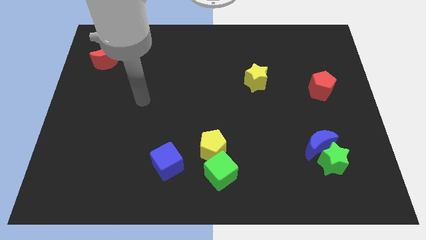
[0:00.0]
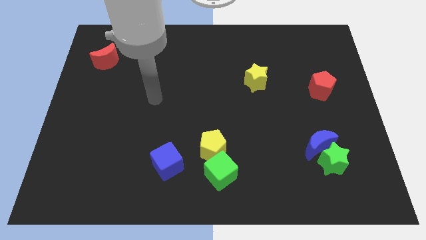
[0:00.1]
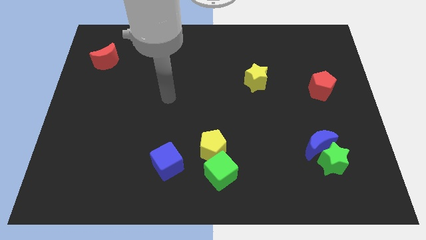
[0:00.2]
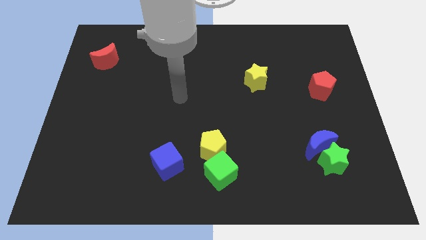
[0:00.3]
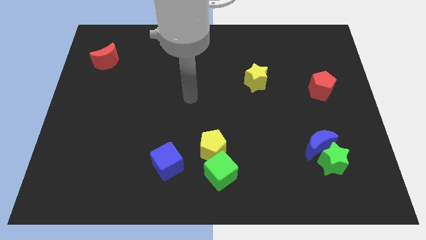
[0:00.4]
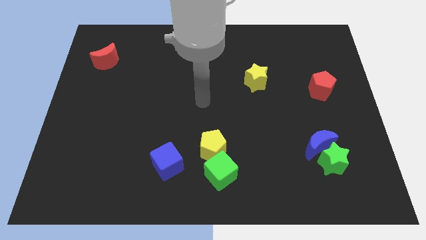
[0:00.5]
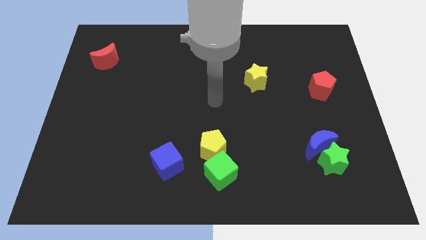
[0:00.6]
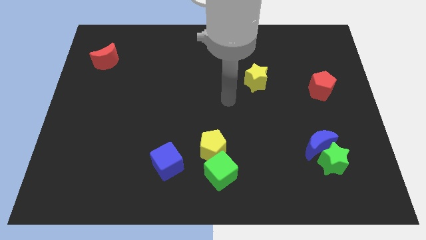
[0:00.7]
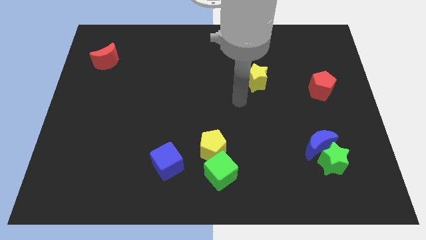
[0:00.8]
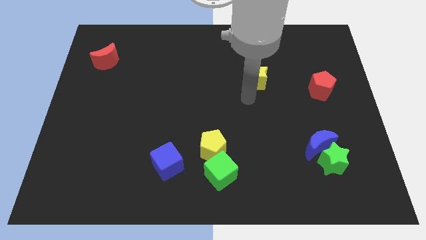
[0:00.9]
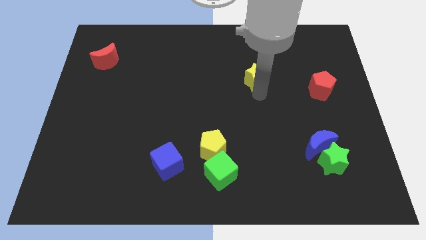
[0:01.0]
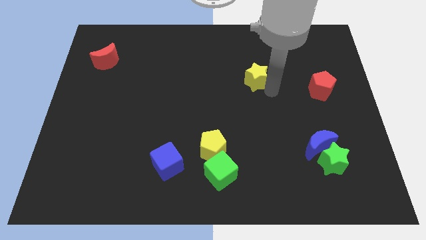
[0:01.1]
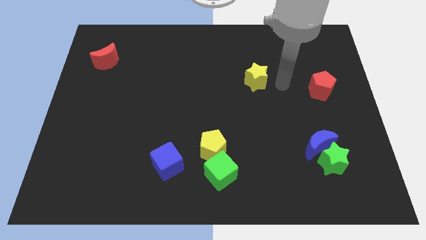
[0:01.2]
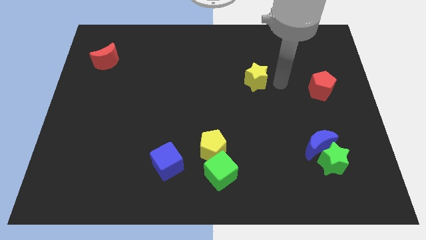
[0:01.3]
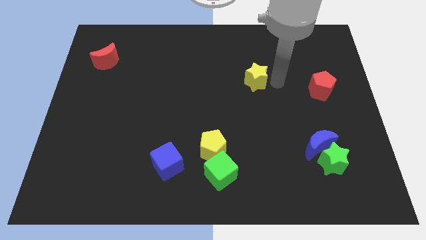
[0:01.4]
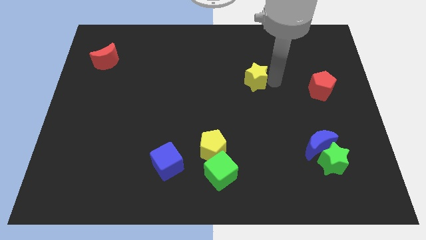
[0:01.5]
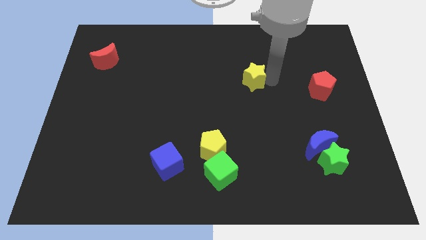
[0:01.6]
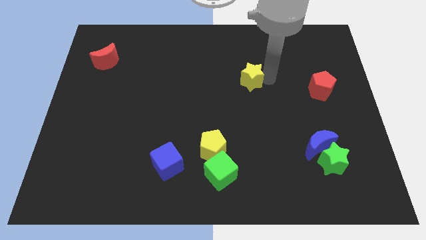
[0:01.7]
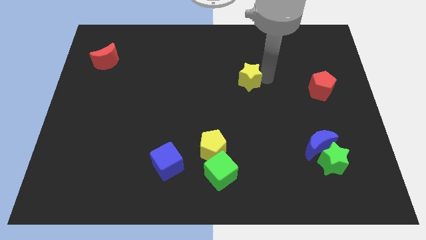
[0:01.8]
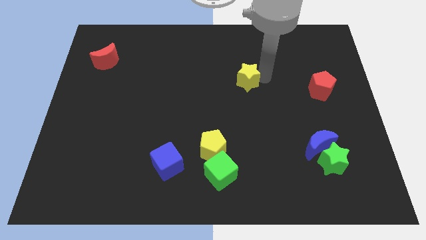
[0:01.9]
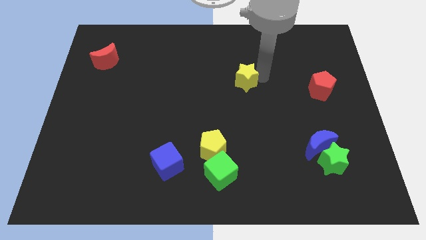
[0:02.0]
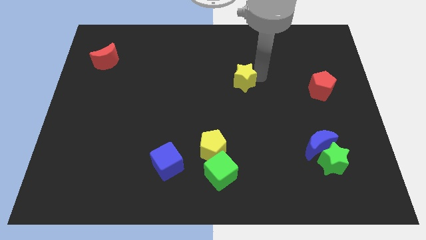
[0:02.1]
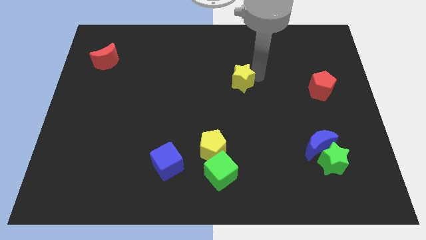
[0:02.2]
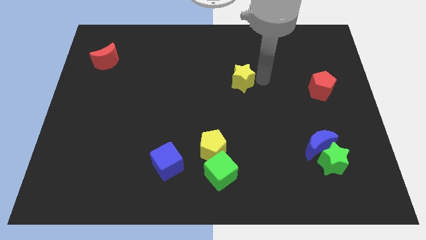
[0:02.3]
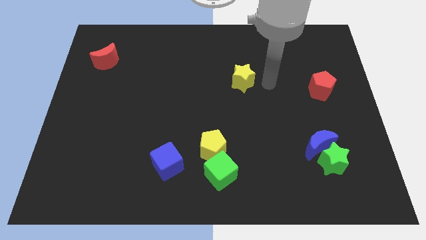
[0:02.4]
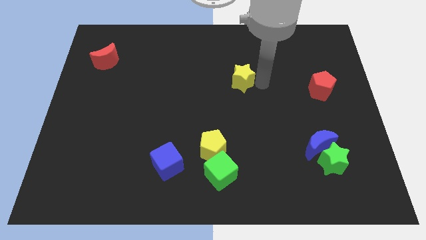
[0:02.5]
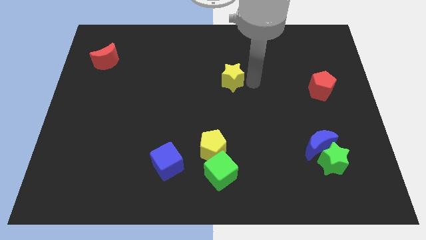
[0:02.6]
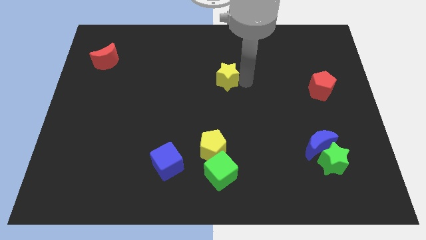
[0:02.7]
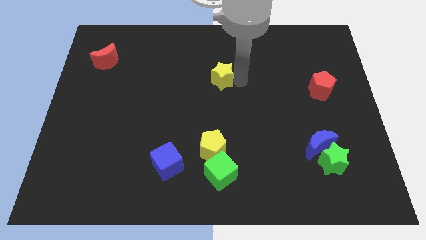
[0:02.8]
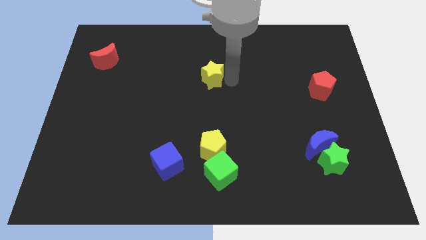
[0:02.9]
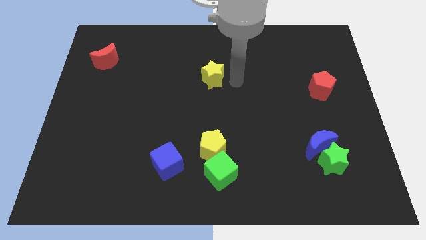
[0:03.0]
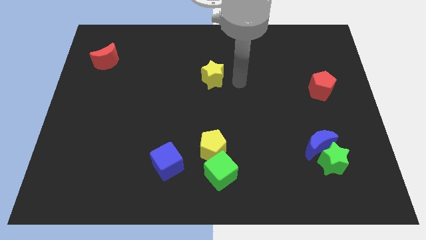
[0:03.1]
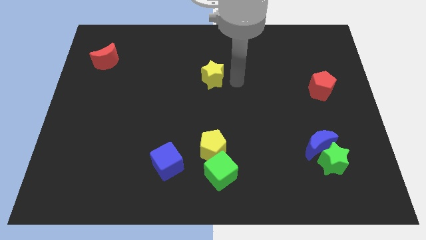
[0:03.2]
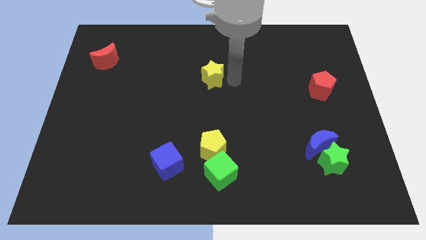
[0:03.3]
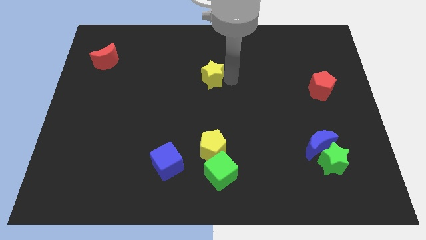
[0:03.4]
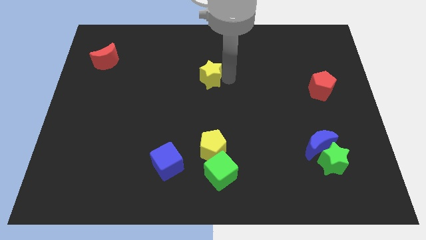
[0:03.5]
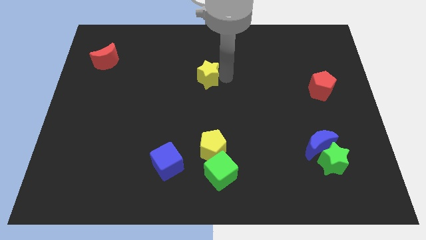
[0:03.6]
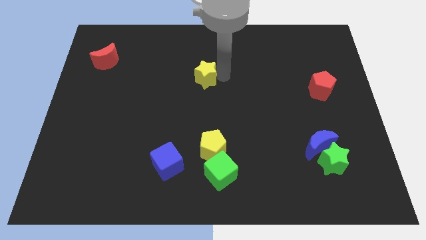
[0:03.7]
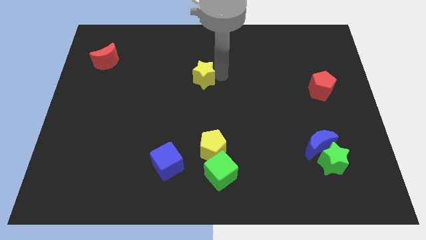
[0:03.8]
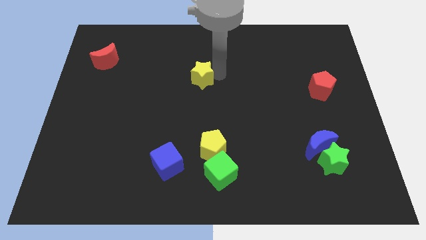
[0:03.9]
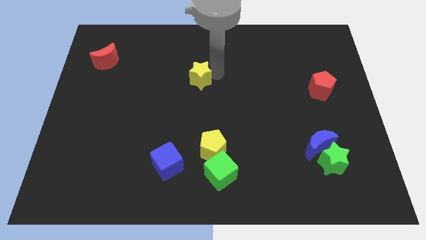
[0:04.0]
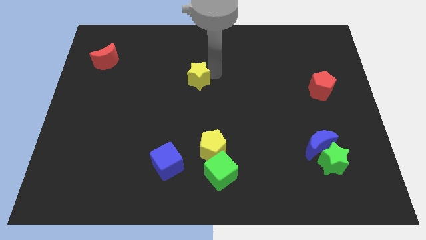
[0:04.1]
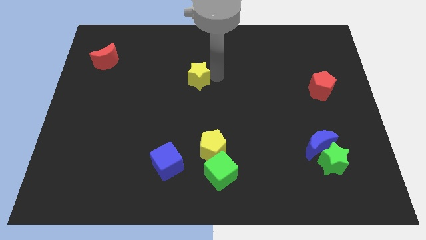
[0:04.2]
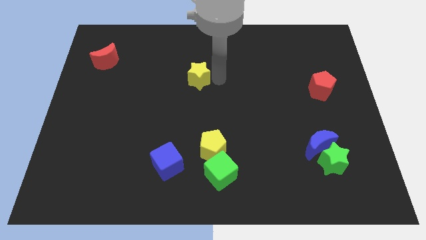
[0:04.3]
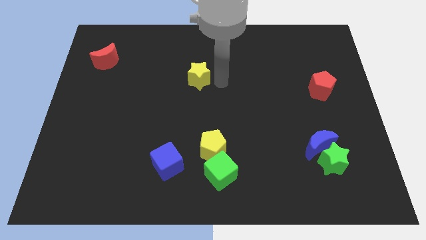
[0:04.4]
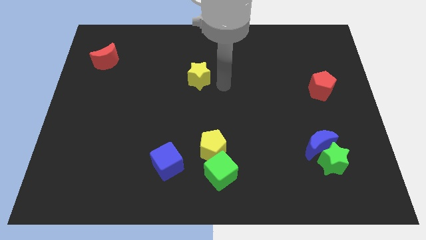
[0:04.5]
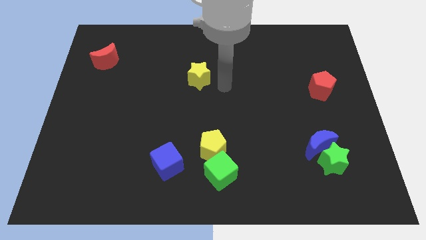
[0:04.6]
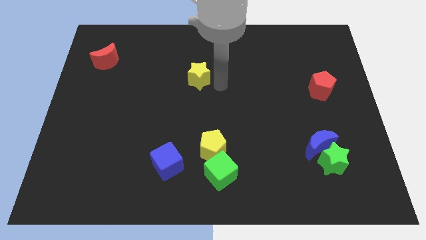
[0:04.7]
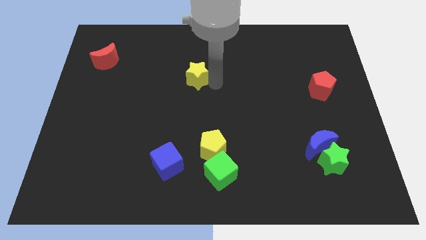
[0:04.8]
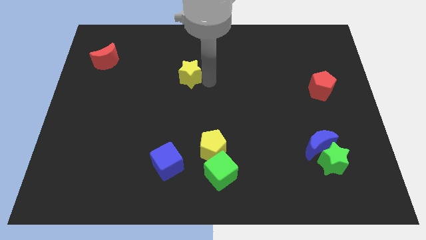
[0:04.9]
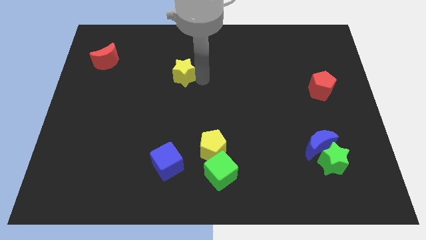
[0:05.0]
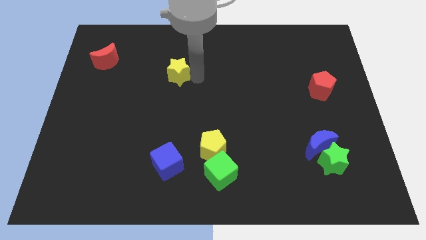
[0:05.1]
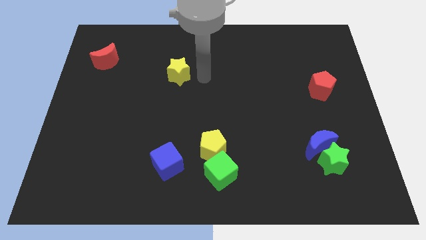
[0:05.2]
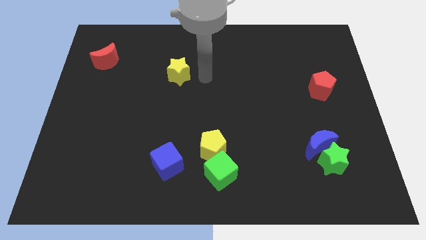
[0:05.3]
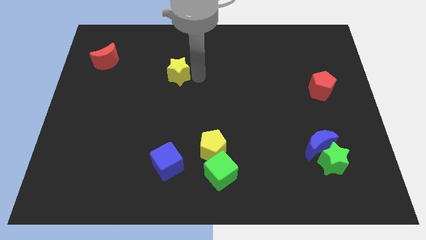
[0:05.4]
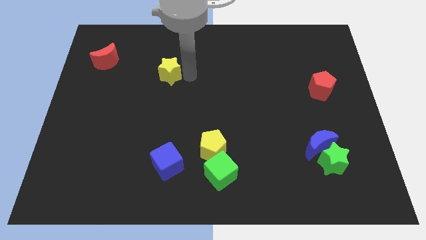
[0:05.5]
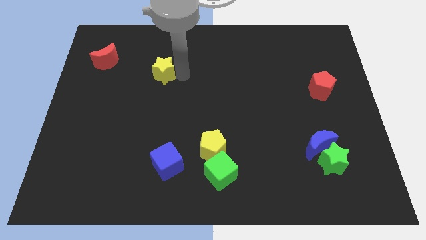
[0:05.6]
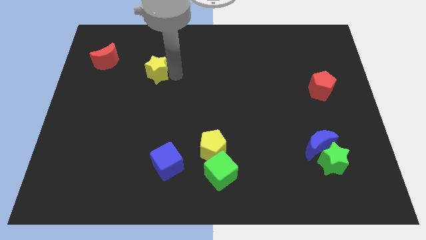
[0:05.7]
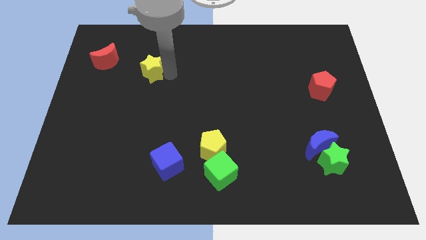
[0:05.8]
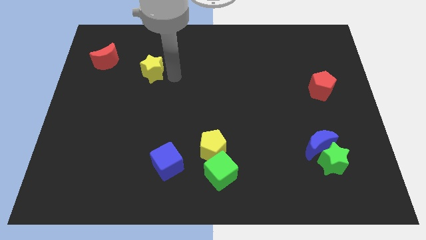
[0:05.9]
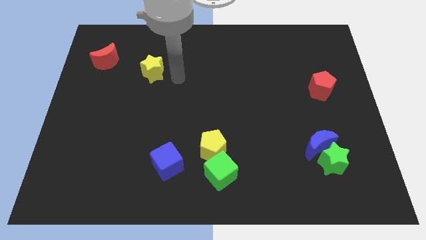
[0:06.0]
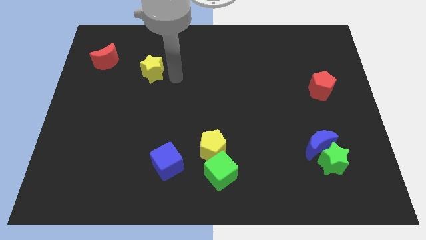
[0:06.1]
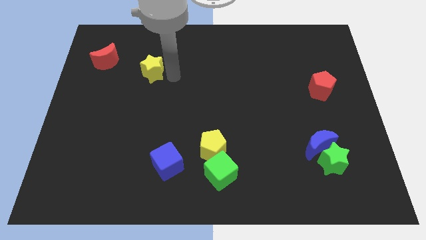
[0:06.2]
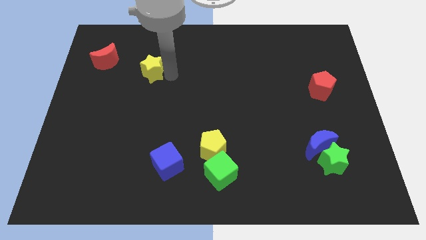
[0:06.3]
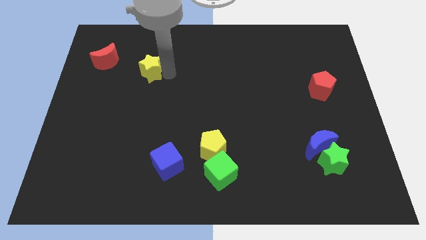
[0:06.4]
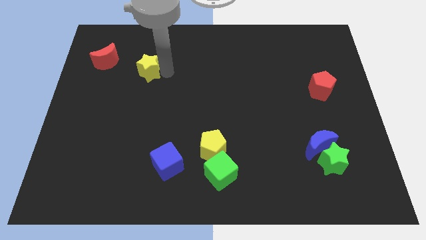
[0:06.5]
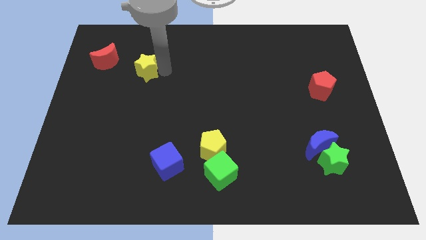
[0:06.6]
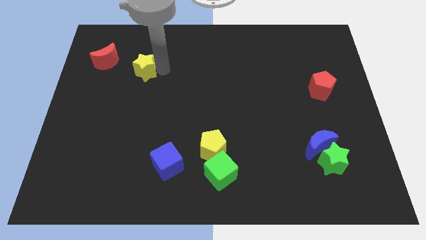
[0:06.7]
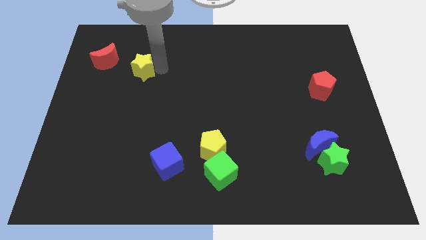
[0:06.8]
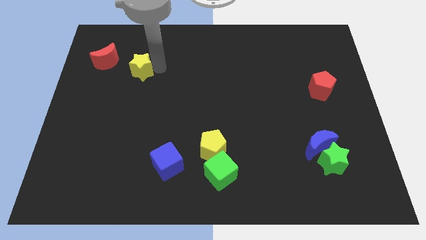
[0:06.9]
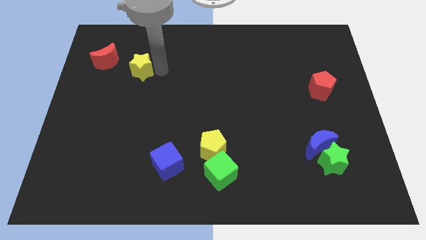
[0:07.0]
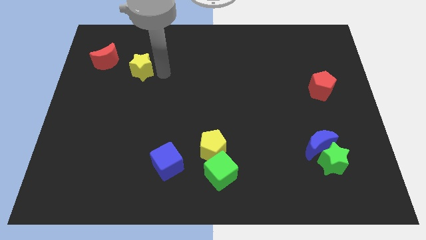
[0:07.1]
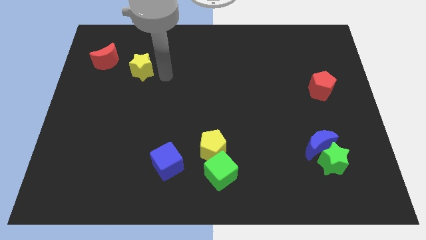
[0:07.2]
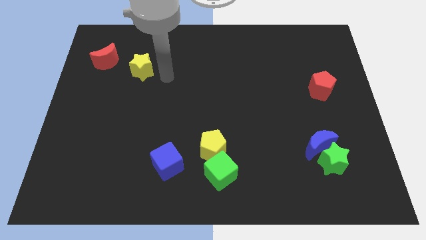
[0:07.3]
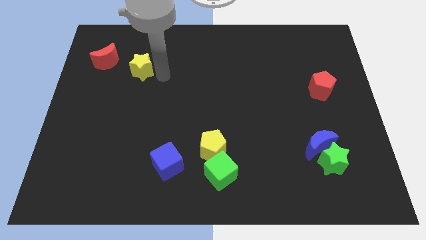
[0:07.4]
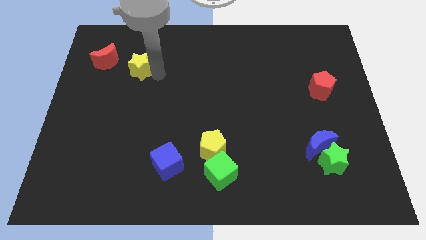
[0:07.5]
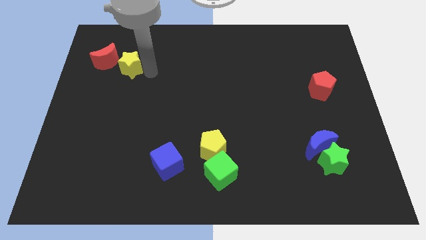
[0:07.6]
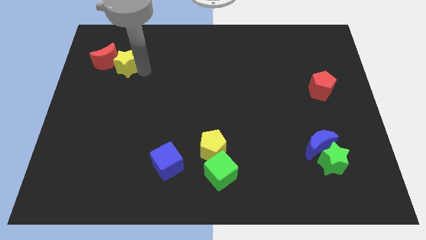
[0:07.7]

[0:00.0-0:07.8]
move the yellow star to the red moon
